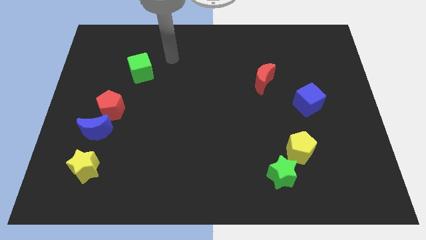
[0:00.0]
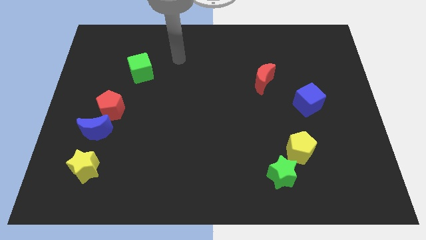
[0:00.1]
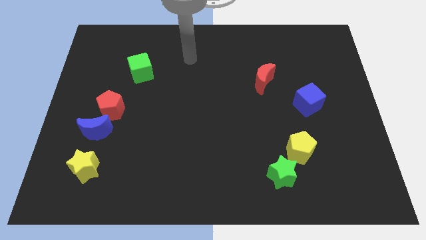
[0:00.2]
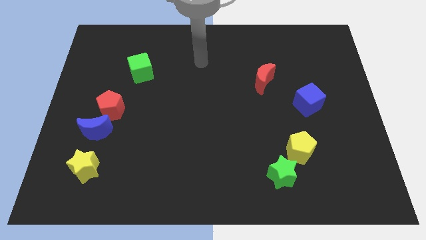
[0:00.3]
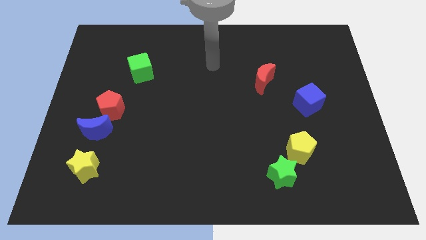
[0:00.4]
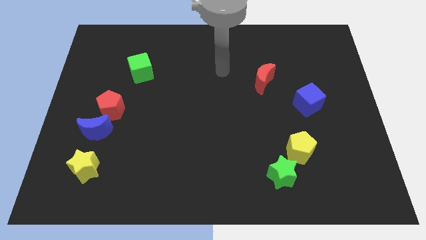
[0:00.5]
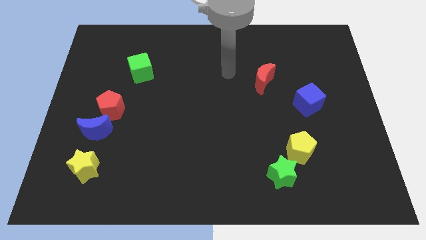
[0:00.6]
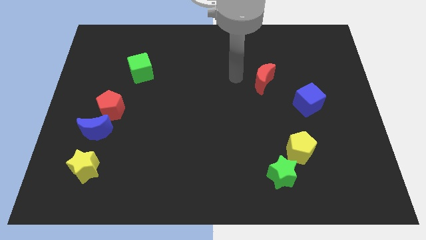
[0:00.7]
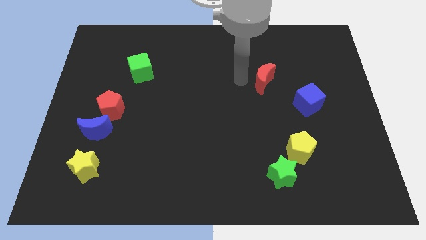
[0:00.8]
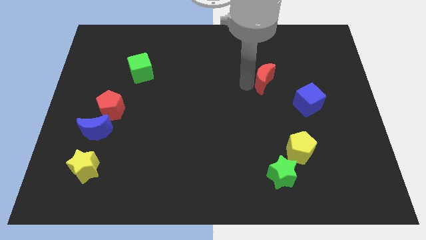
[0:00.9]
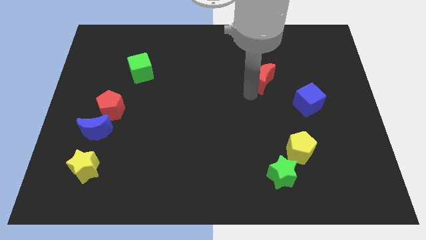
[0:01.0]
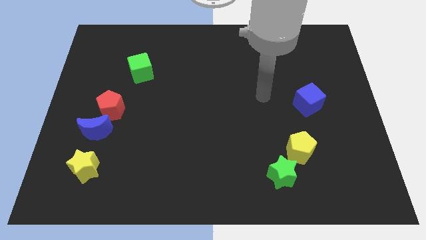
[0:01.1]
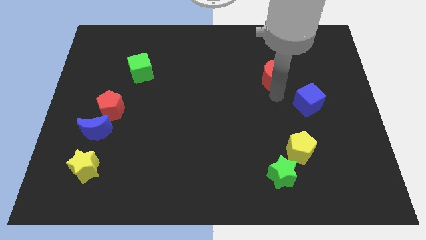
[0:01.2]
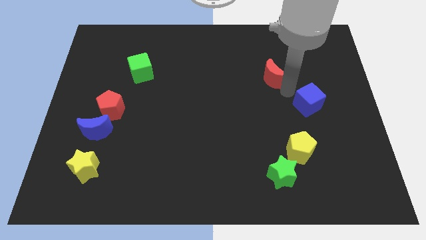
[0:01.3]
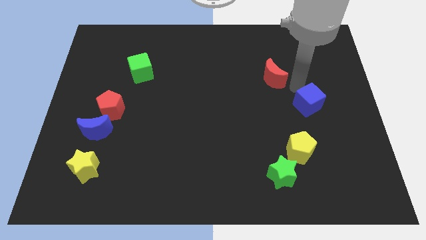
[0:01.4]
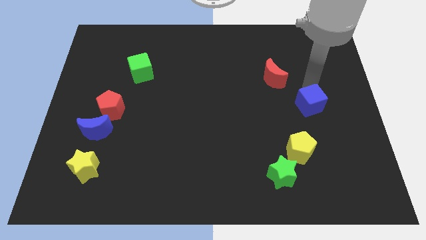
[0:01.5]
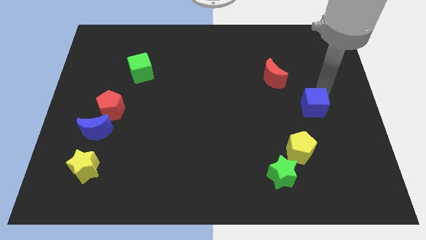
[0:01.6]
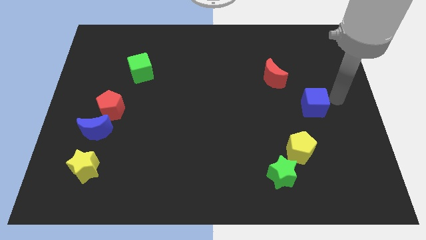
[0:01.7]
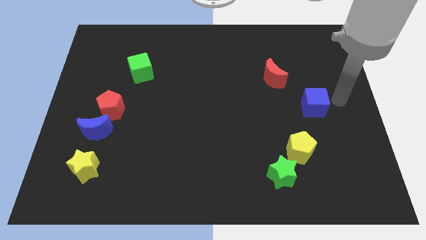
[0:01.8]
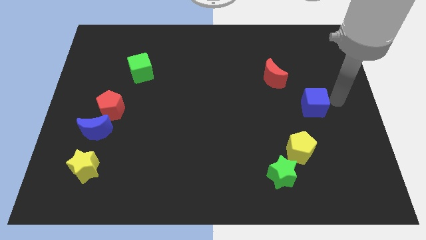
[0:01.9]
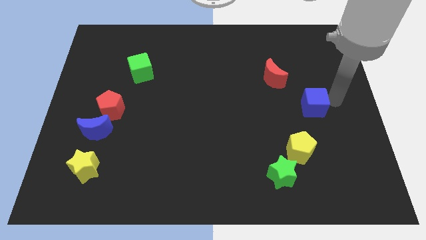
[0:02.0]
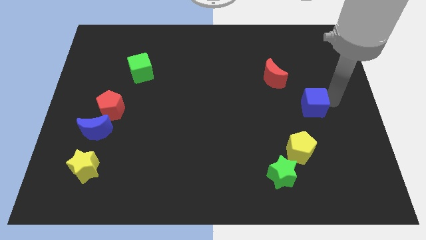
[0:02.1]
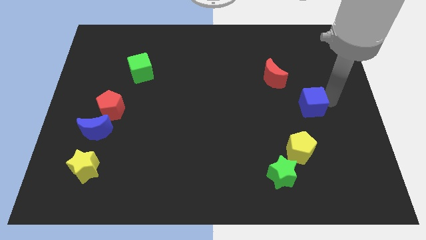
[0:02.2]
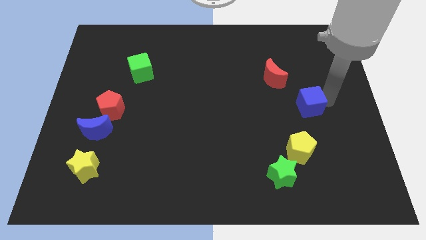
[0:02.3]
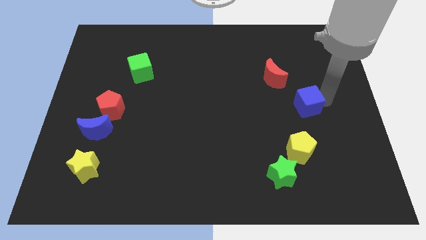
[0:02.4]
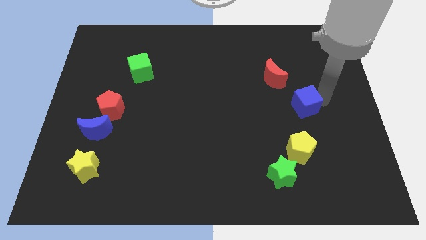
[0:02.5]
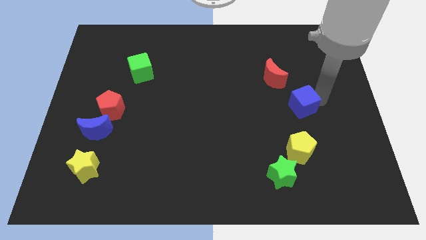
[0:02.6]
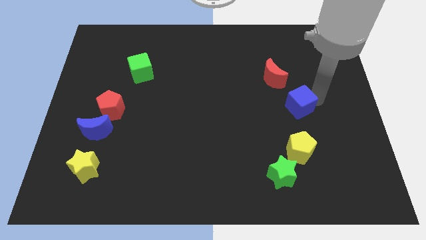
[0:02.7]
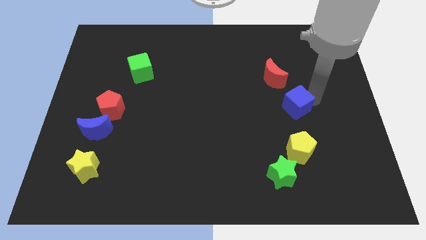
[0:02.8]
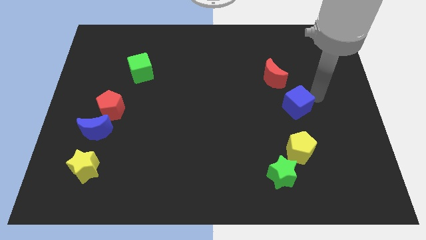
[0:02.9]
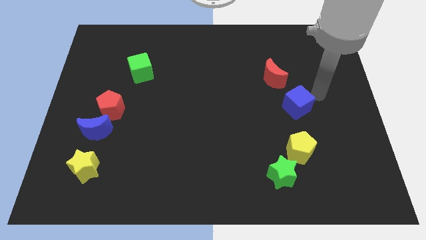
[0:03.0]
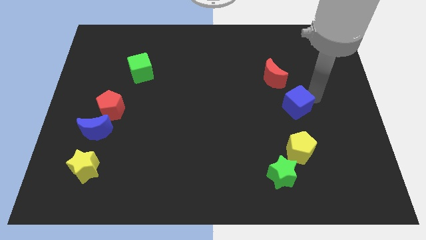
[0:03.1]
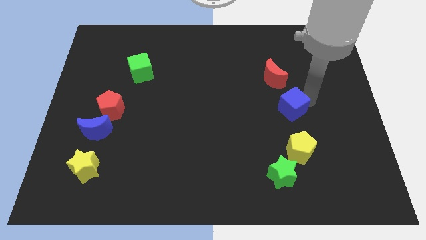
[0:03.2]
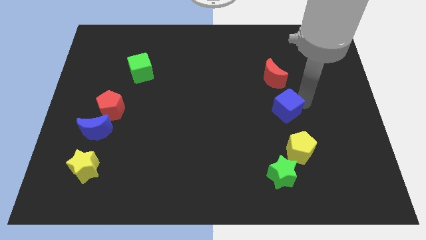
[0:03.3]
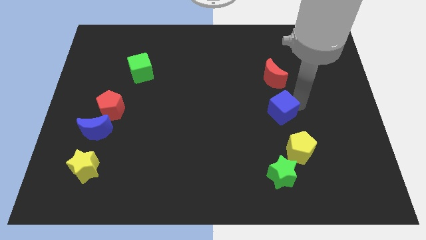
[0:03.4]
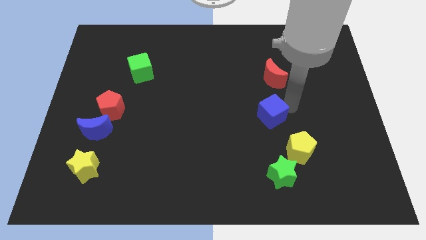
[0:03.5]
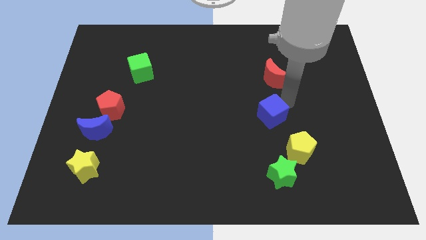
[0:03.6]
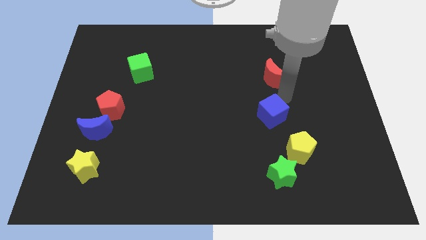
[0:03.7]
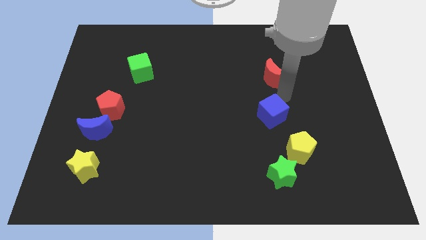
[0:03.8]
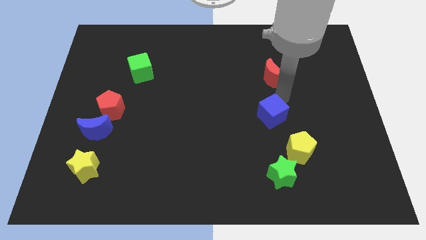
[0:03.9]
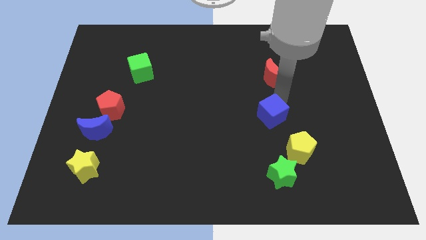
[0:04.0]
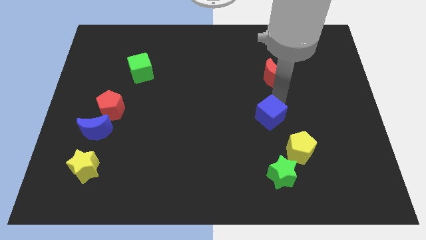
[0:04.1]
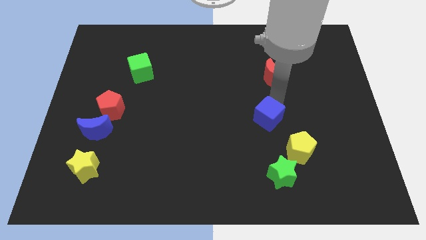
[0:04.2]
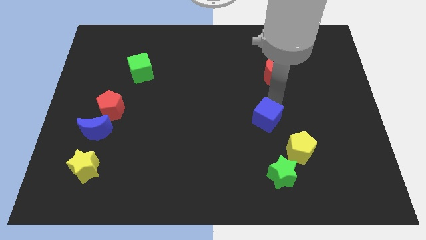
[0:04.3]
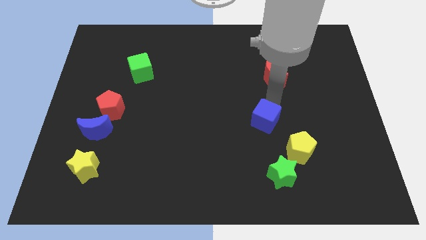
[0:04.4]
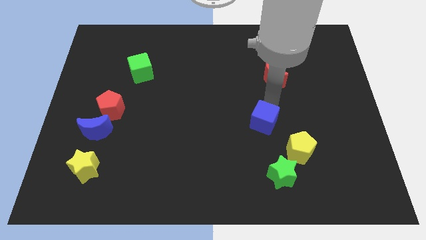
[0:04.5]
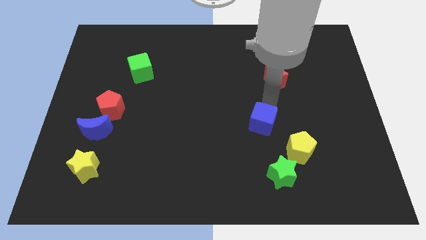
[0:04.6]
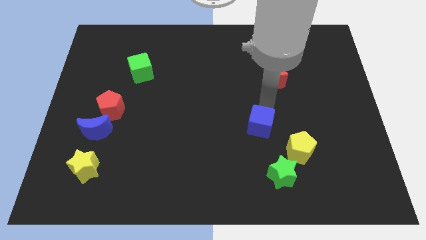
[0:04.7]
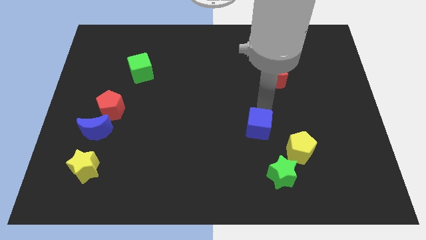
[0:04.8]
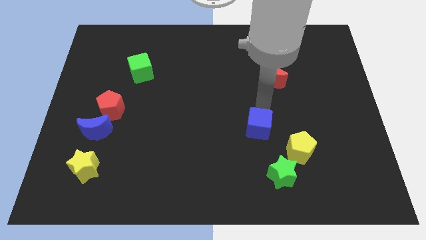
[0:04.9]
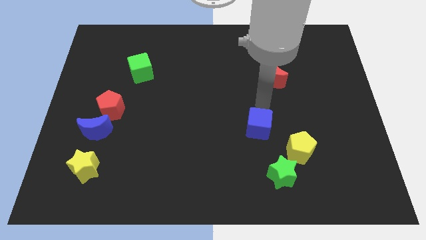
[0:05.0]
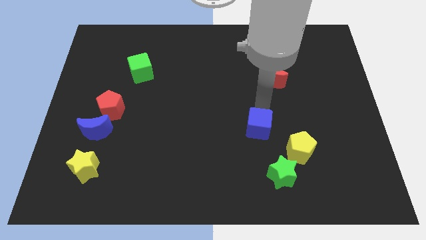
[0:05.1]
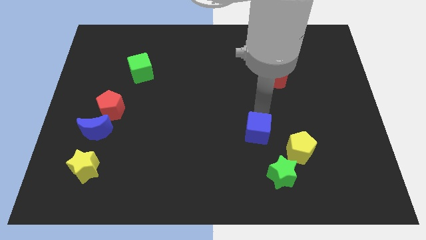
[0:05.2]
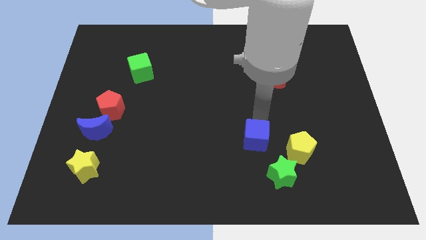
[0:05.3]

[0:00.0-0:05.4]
slide the blue cube to the top left side of the green star

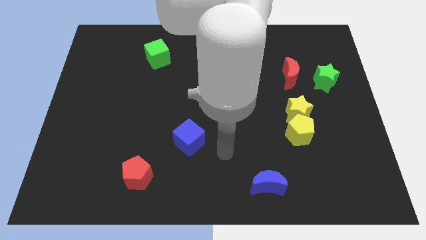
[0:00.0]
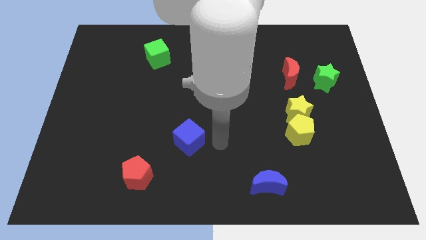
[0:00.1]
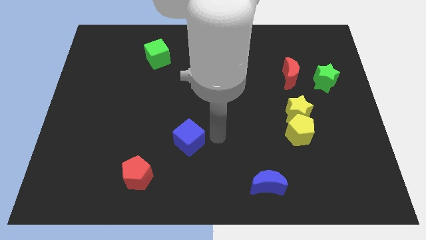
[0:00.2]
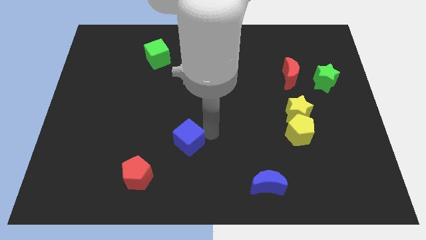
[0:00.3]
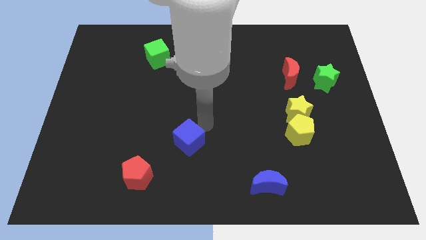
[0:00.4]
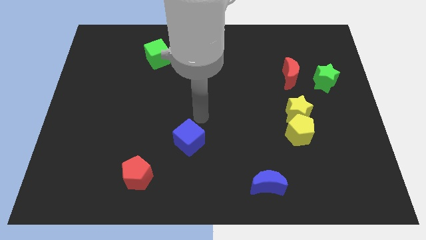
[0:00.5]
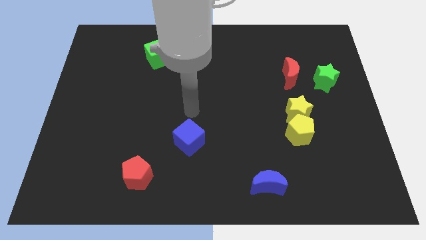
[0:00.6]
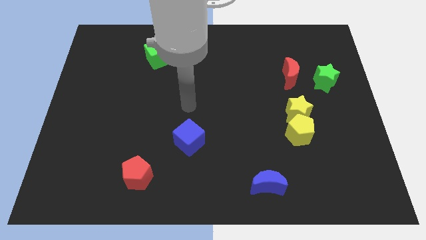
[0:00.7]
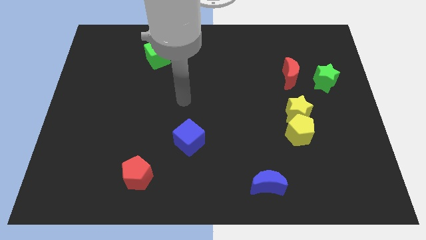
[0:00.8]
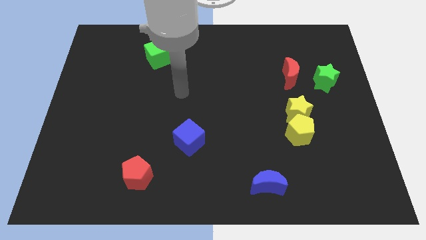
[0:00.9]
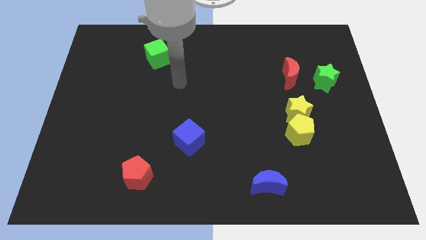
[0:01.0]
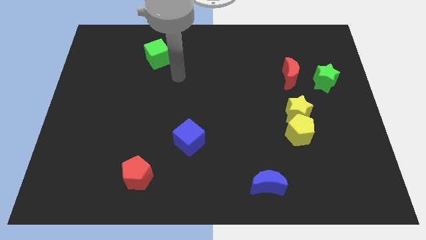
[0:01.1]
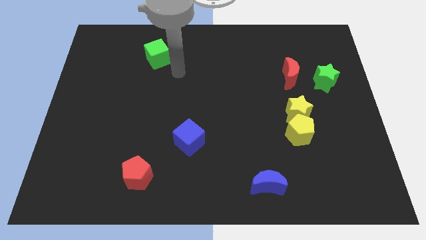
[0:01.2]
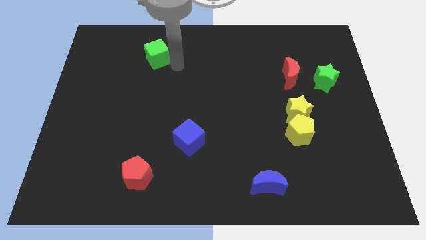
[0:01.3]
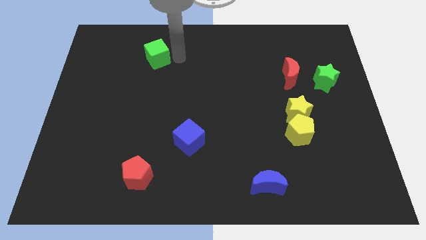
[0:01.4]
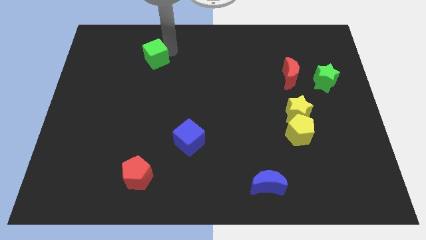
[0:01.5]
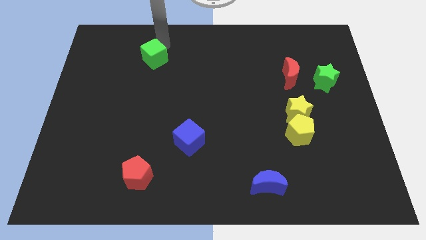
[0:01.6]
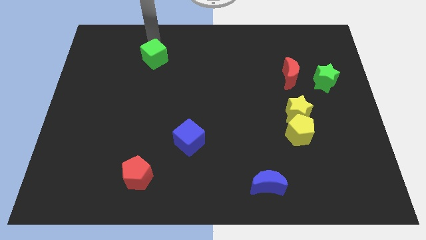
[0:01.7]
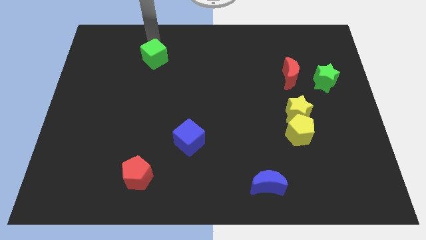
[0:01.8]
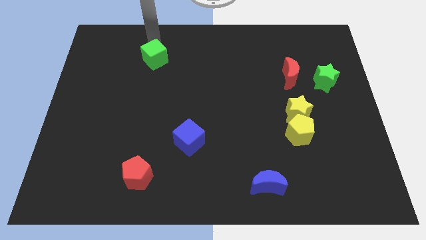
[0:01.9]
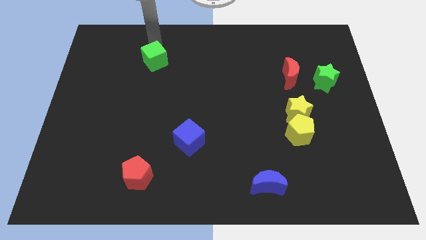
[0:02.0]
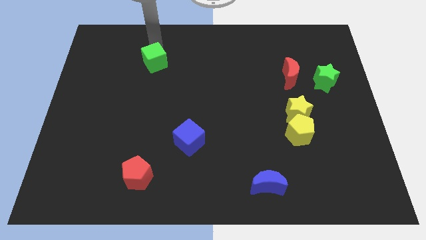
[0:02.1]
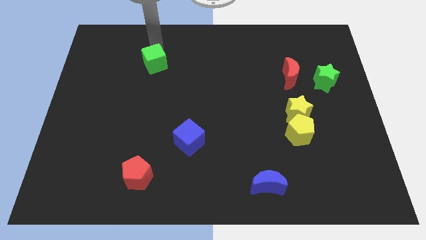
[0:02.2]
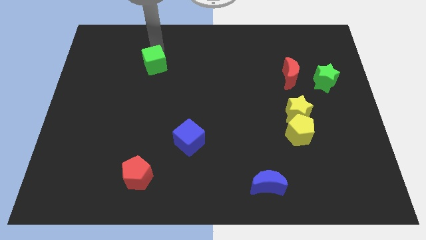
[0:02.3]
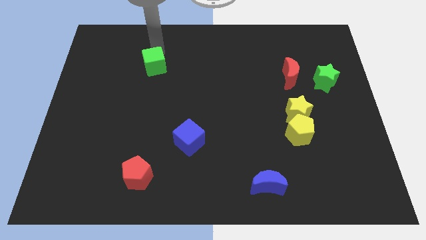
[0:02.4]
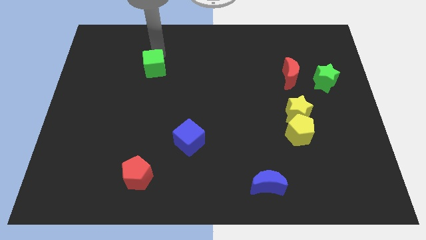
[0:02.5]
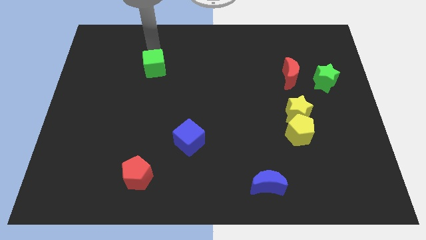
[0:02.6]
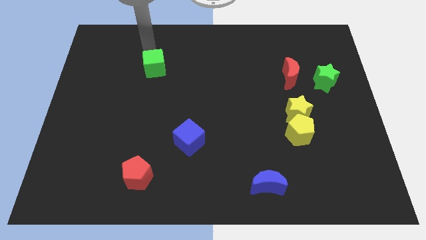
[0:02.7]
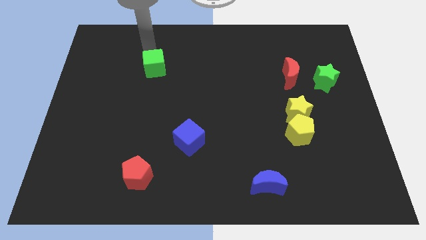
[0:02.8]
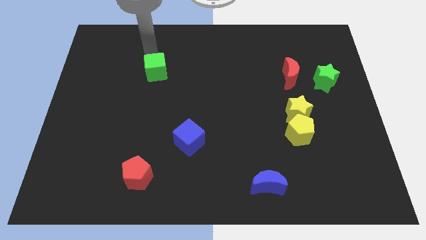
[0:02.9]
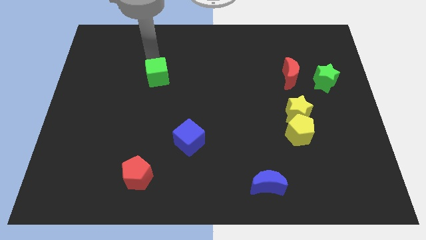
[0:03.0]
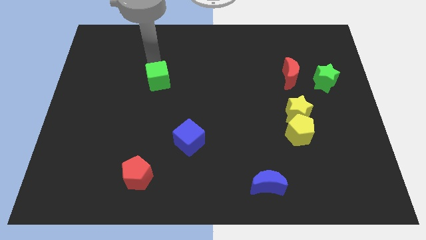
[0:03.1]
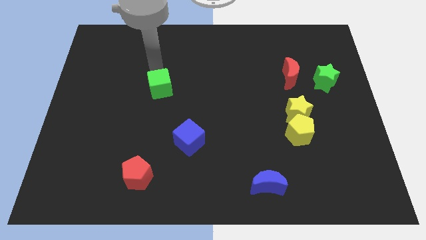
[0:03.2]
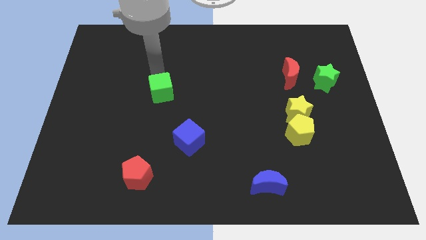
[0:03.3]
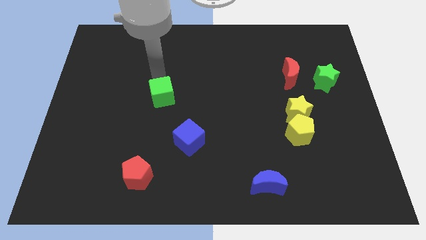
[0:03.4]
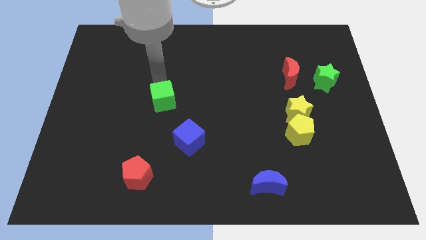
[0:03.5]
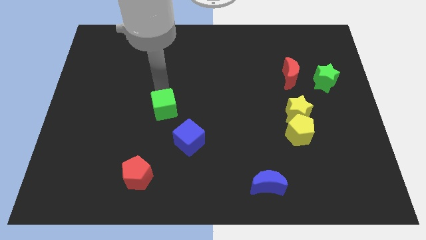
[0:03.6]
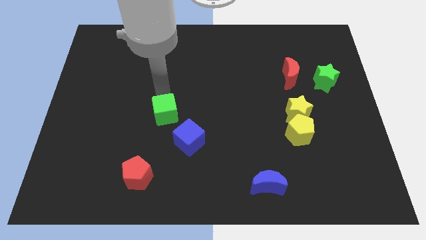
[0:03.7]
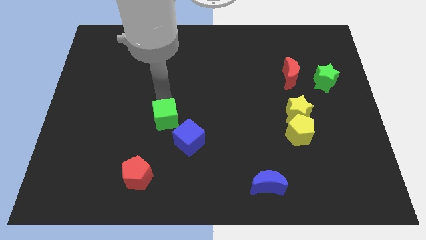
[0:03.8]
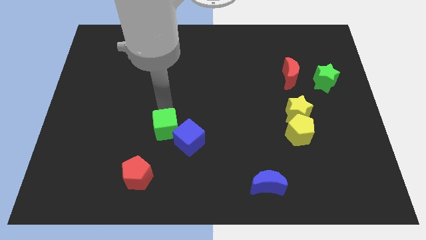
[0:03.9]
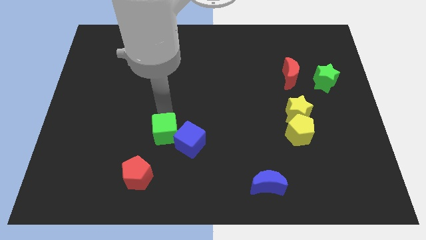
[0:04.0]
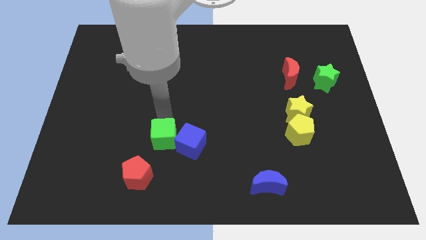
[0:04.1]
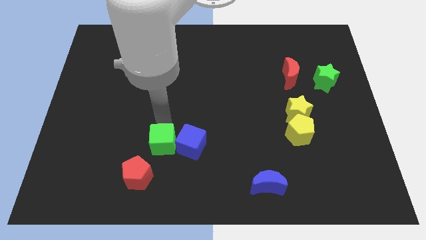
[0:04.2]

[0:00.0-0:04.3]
slide the green cube diagonally down and to the left of the blue cube
